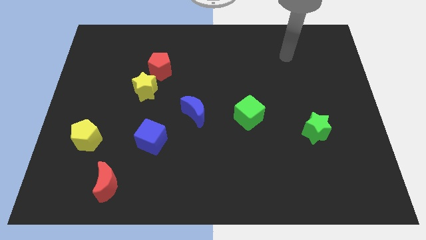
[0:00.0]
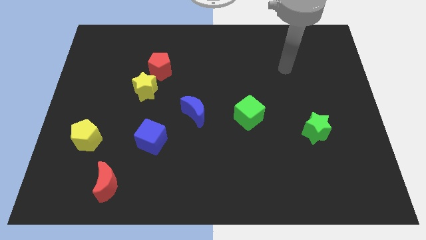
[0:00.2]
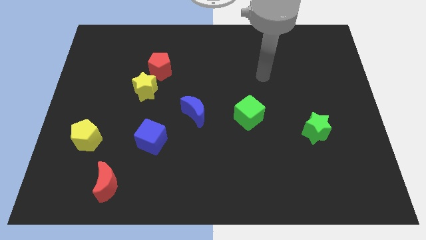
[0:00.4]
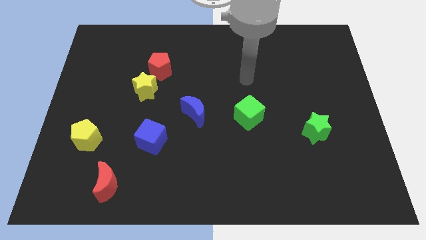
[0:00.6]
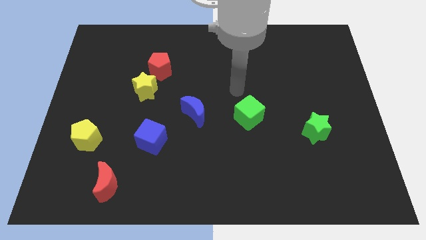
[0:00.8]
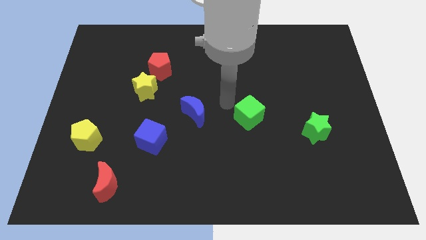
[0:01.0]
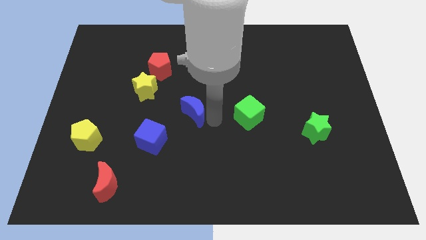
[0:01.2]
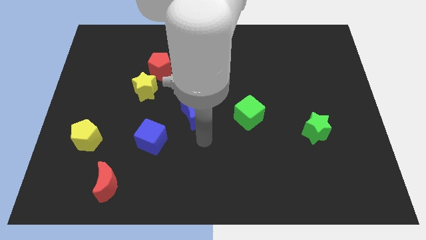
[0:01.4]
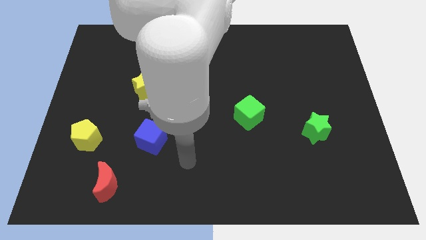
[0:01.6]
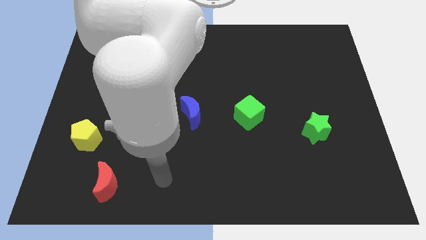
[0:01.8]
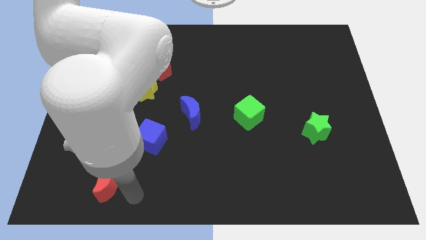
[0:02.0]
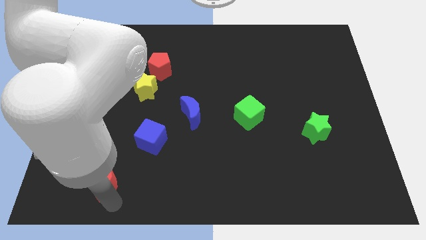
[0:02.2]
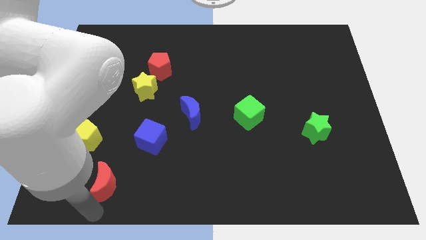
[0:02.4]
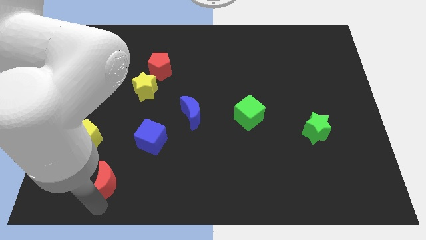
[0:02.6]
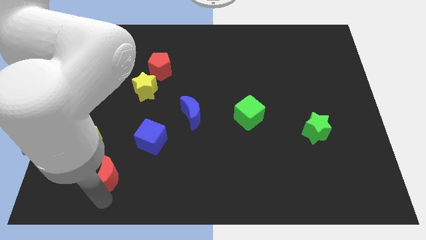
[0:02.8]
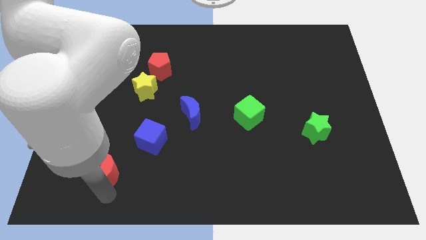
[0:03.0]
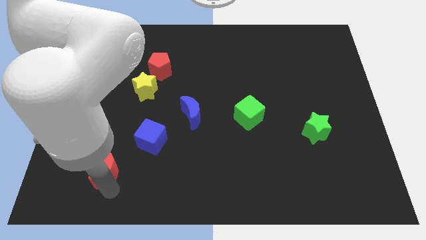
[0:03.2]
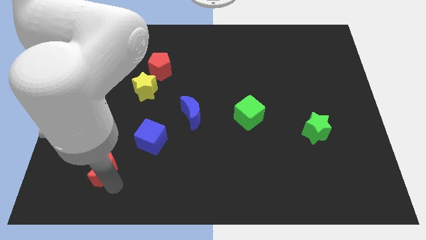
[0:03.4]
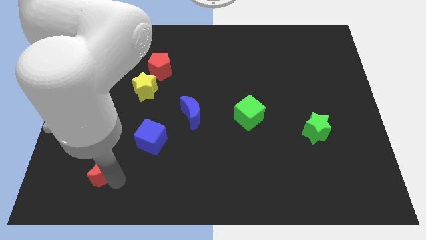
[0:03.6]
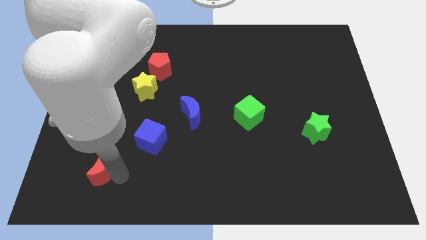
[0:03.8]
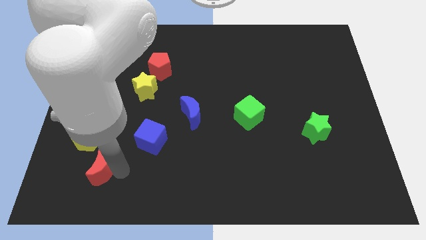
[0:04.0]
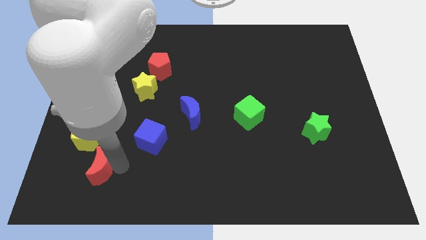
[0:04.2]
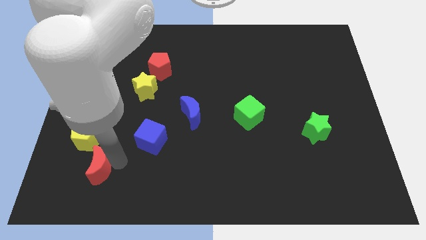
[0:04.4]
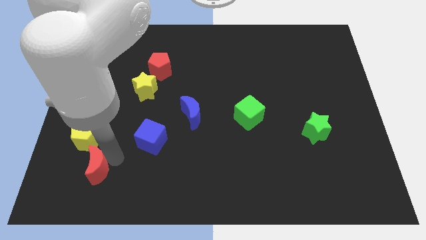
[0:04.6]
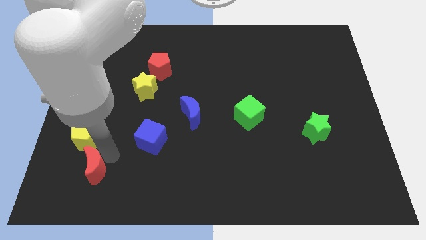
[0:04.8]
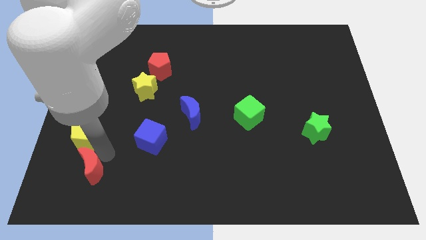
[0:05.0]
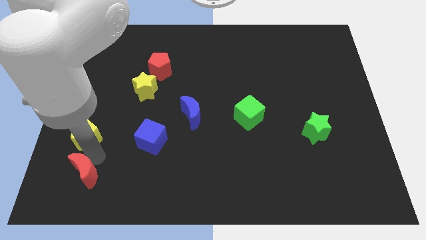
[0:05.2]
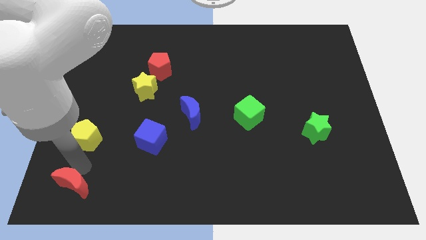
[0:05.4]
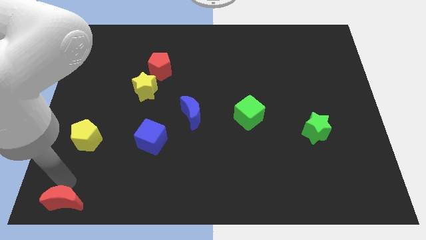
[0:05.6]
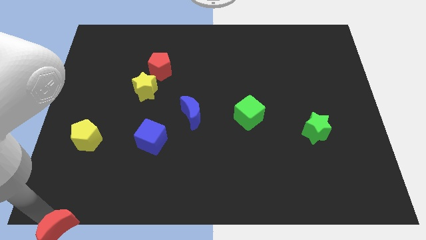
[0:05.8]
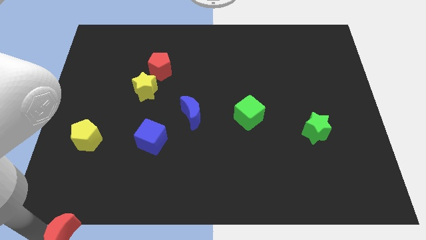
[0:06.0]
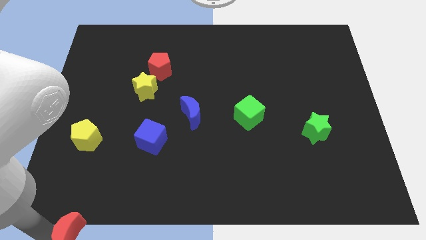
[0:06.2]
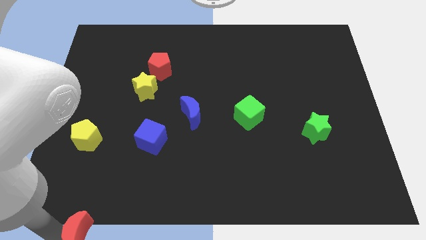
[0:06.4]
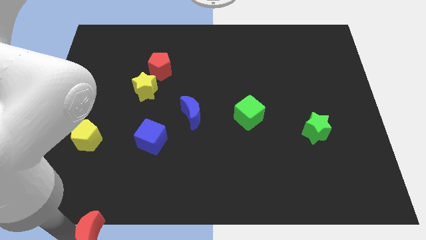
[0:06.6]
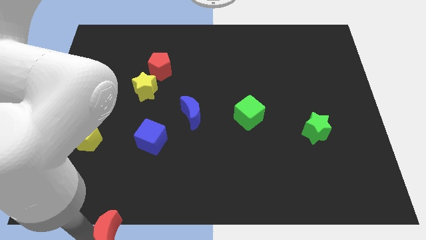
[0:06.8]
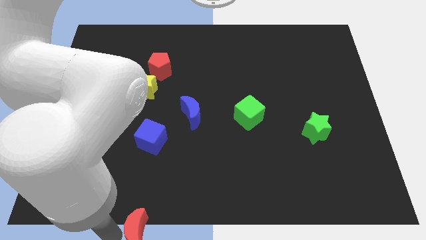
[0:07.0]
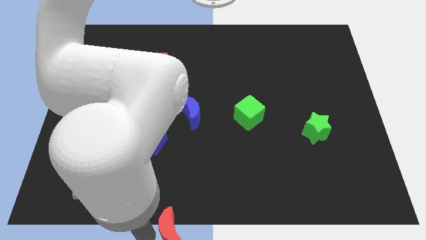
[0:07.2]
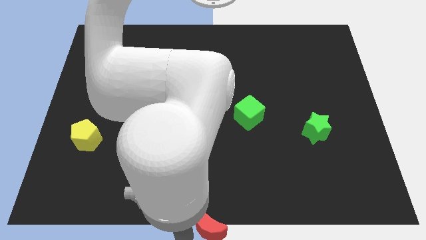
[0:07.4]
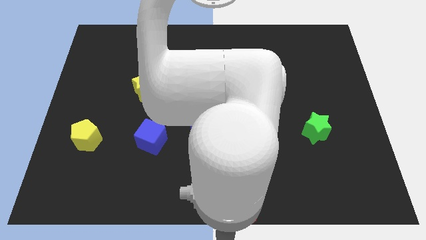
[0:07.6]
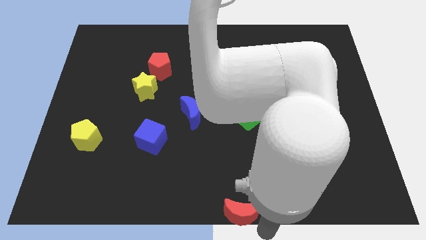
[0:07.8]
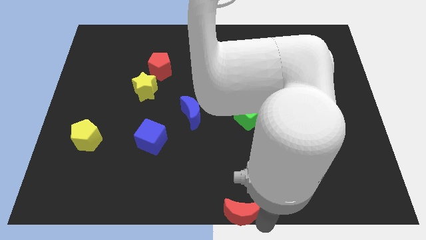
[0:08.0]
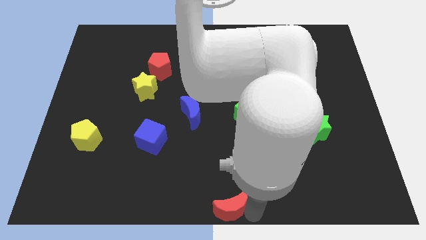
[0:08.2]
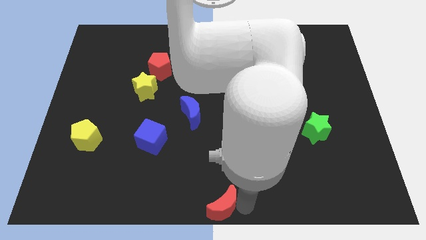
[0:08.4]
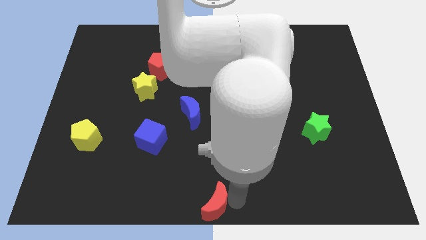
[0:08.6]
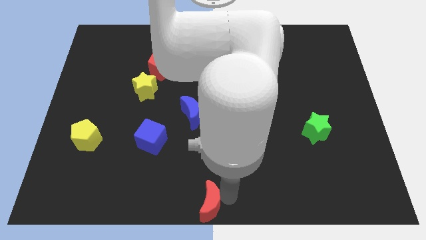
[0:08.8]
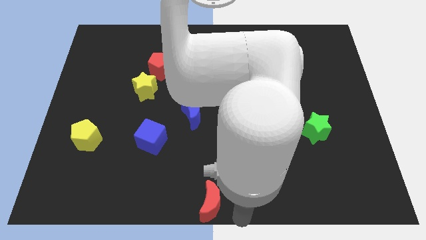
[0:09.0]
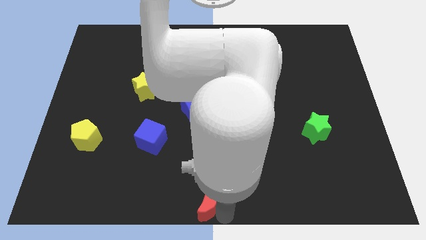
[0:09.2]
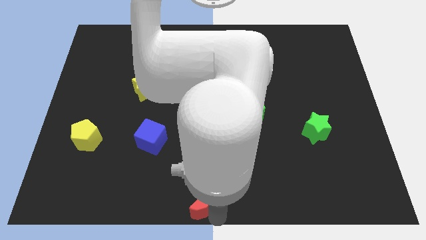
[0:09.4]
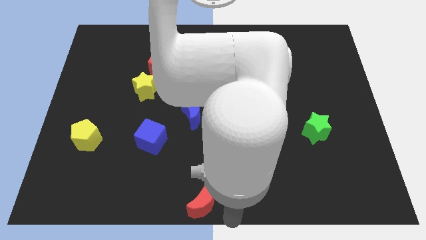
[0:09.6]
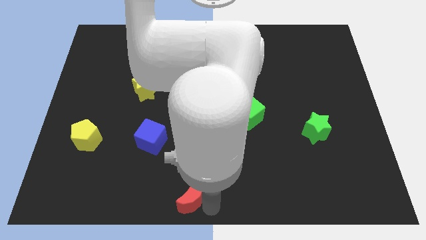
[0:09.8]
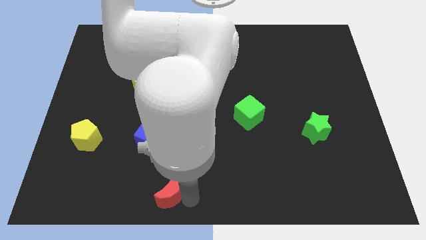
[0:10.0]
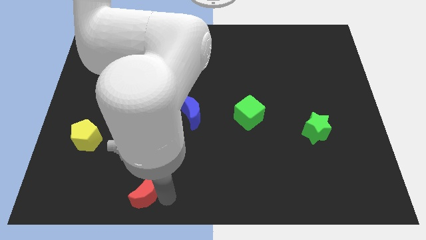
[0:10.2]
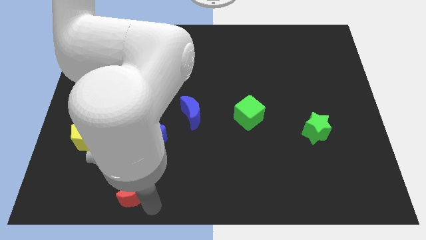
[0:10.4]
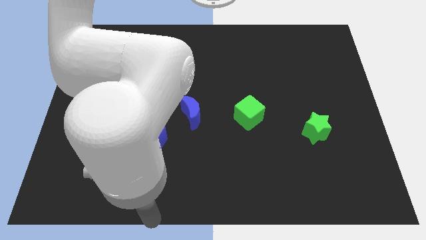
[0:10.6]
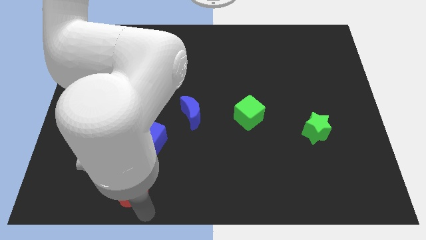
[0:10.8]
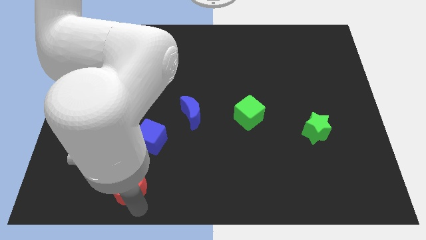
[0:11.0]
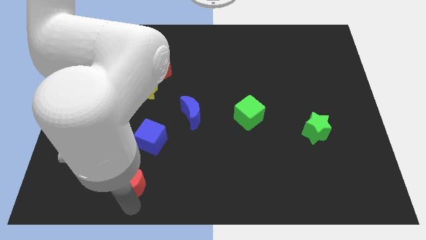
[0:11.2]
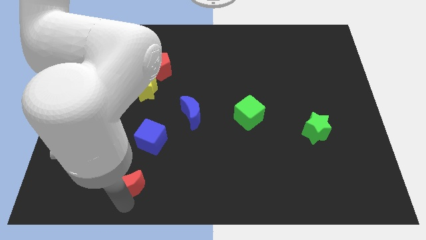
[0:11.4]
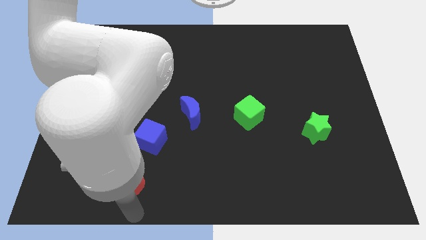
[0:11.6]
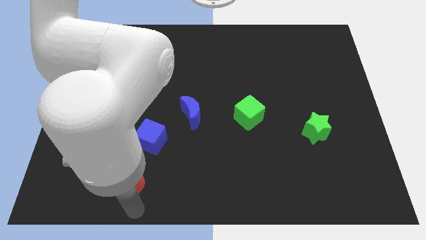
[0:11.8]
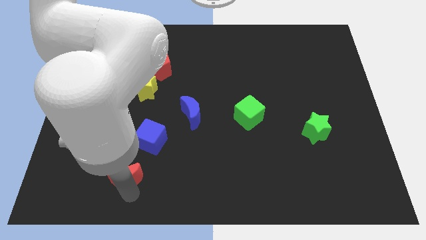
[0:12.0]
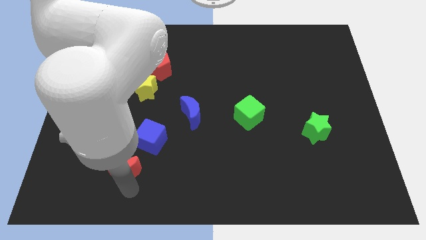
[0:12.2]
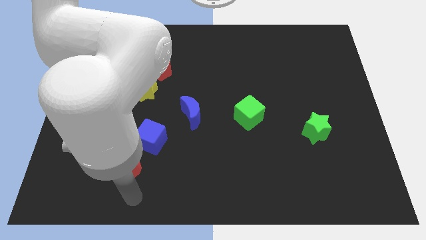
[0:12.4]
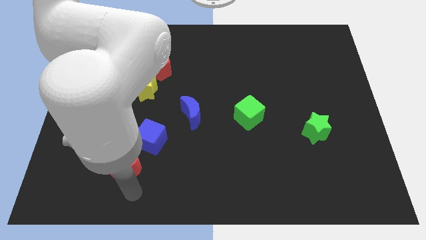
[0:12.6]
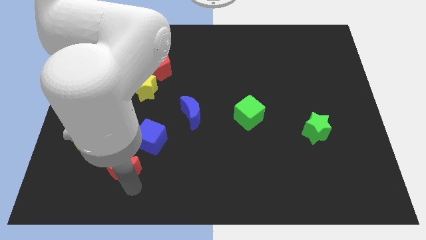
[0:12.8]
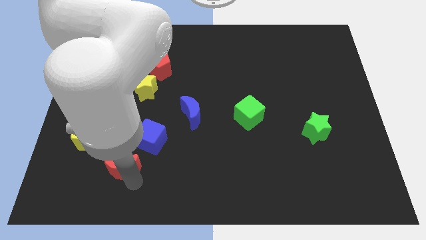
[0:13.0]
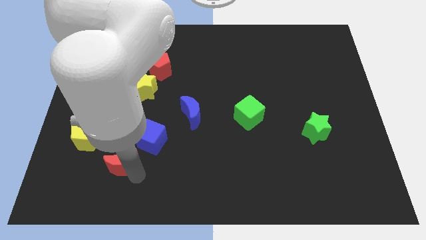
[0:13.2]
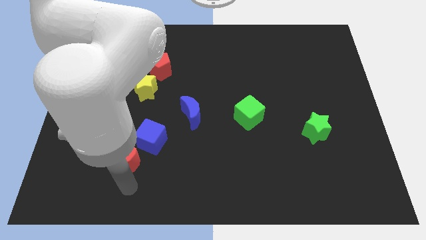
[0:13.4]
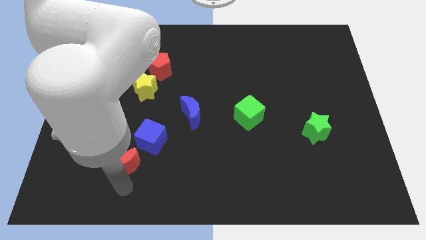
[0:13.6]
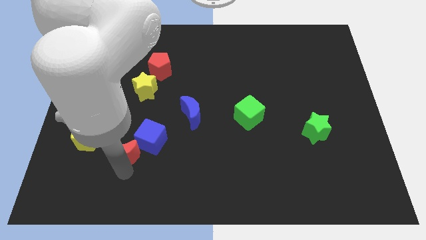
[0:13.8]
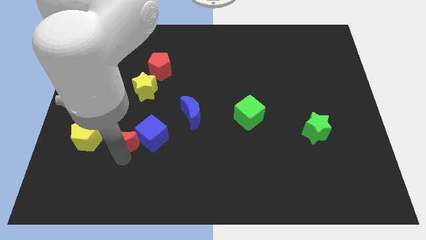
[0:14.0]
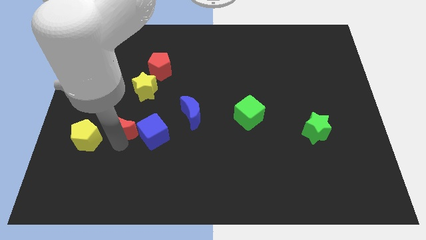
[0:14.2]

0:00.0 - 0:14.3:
slide the red moon to the top left of the blue cube

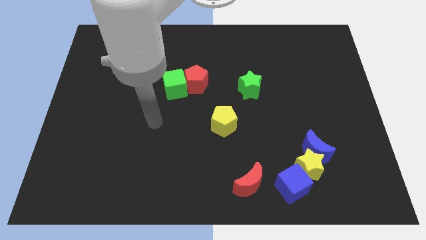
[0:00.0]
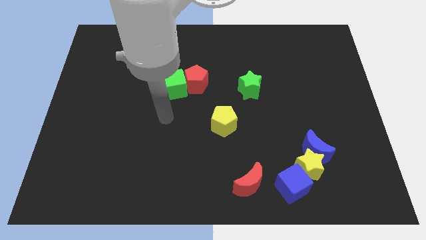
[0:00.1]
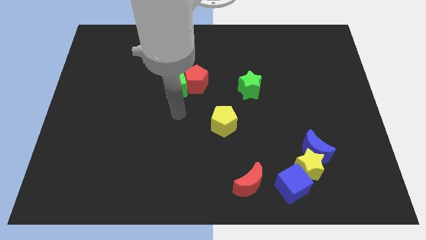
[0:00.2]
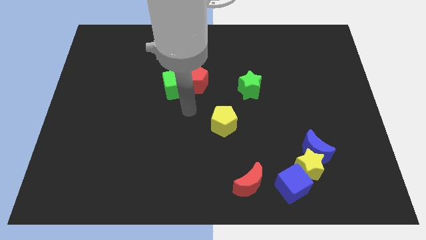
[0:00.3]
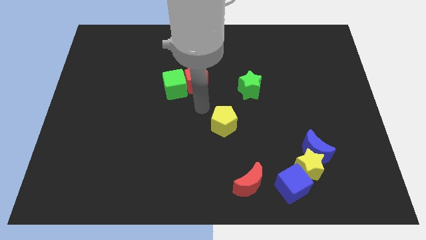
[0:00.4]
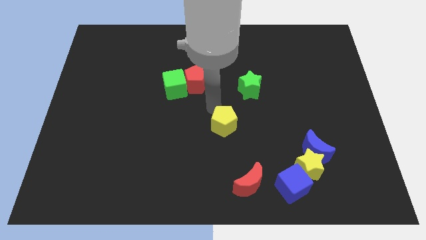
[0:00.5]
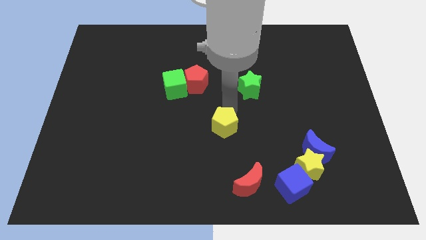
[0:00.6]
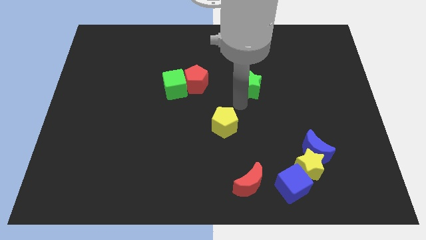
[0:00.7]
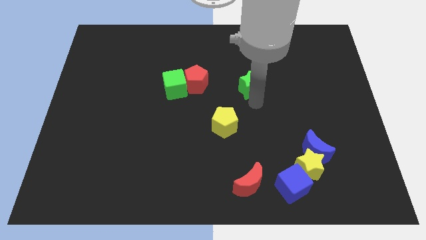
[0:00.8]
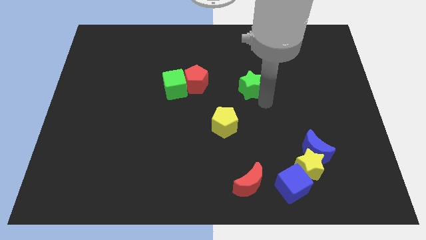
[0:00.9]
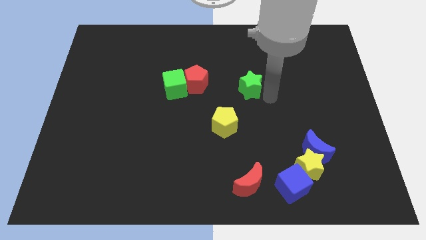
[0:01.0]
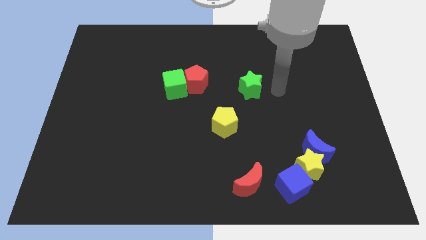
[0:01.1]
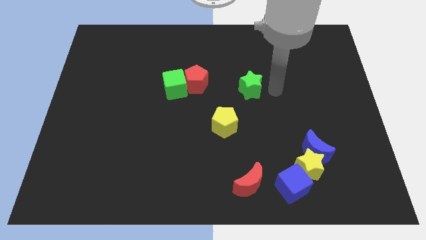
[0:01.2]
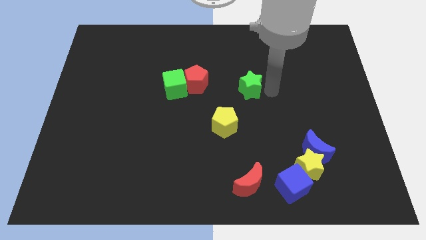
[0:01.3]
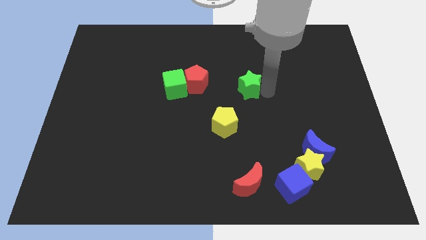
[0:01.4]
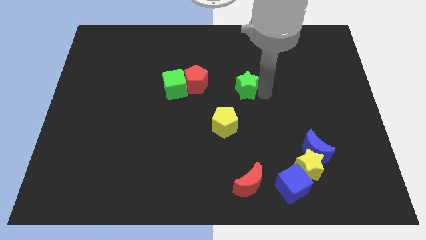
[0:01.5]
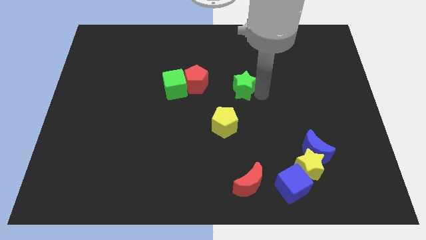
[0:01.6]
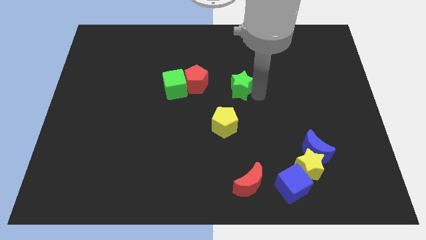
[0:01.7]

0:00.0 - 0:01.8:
slide the green star just right of the green cube
